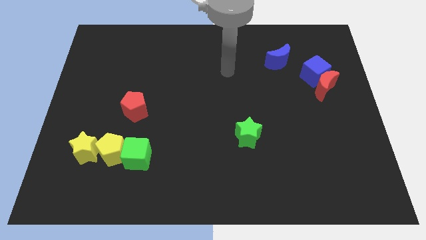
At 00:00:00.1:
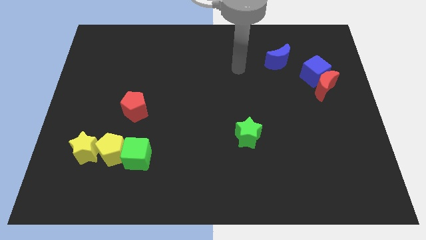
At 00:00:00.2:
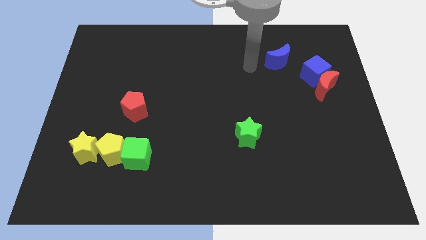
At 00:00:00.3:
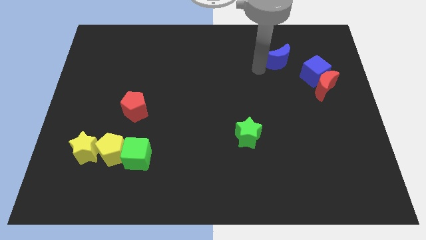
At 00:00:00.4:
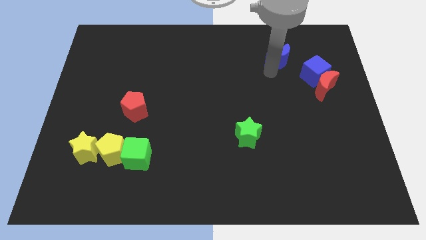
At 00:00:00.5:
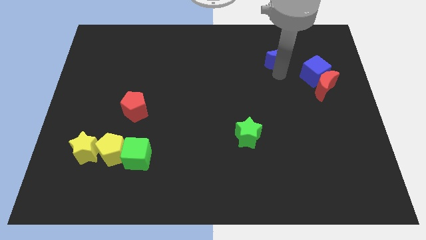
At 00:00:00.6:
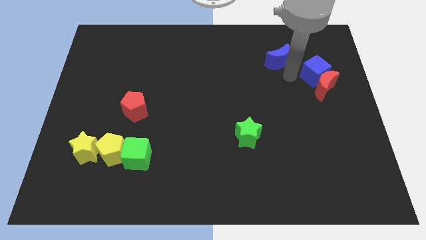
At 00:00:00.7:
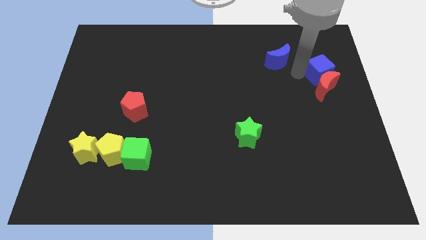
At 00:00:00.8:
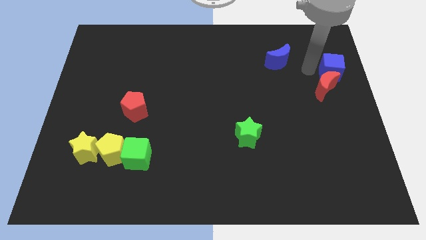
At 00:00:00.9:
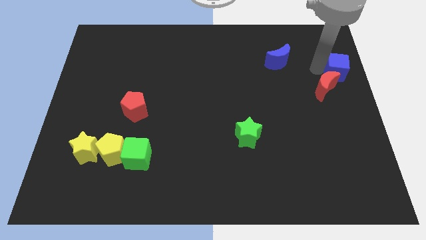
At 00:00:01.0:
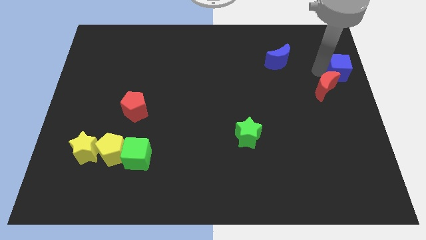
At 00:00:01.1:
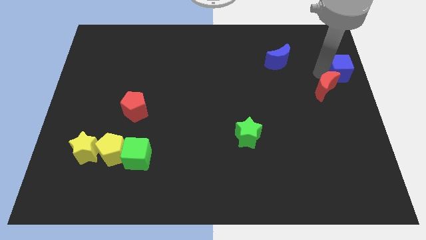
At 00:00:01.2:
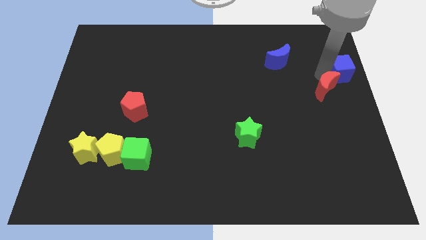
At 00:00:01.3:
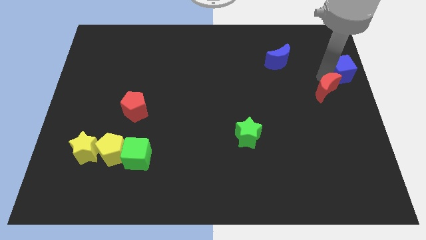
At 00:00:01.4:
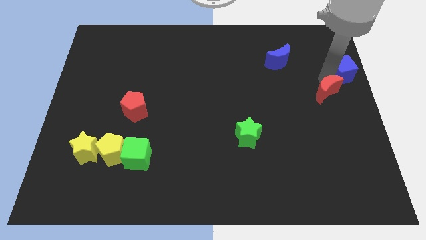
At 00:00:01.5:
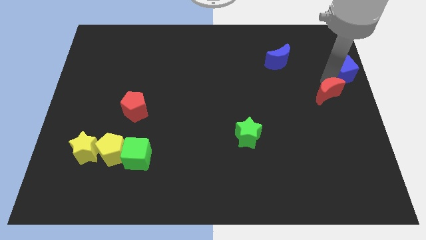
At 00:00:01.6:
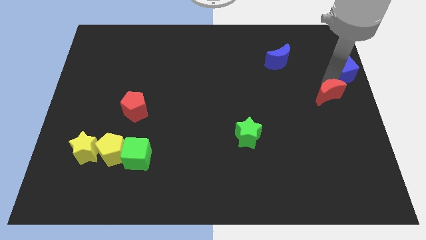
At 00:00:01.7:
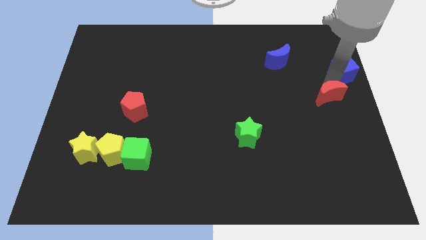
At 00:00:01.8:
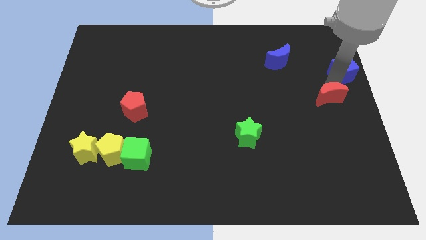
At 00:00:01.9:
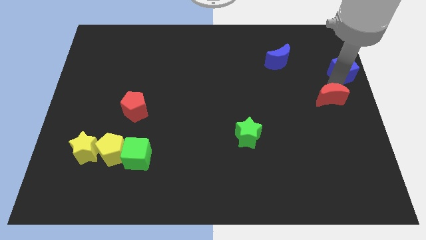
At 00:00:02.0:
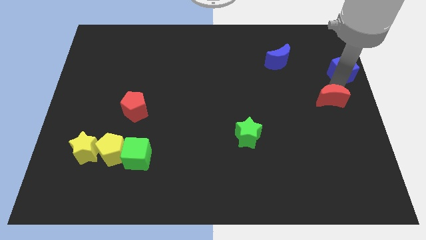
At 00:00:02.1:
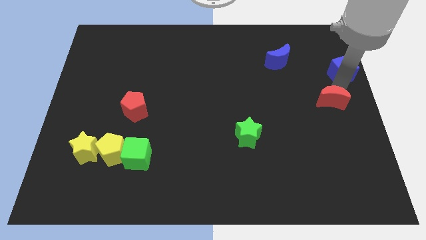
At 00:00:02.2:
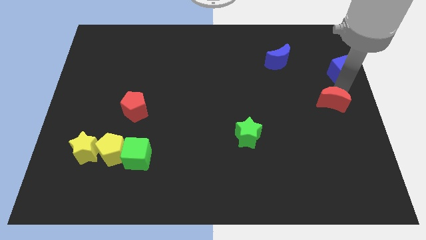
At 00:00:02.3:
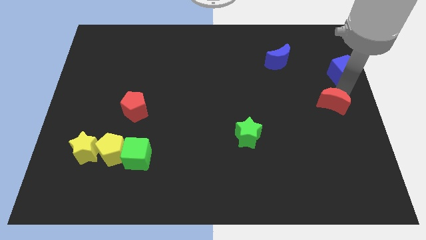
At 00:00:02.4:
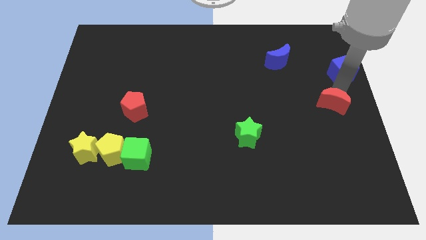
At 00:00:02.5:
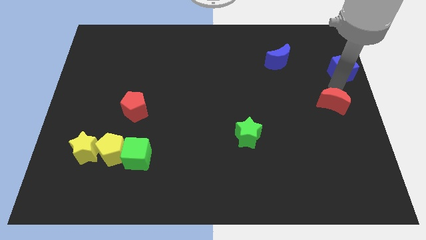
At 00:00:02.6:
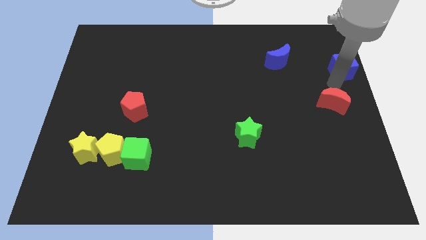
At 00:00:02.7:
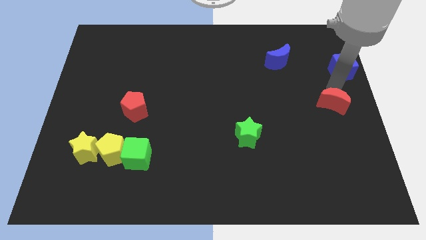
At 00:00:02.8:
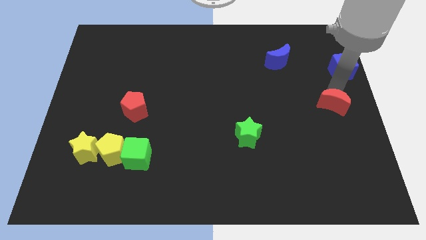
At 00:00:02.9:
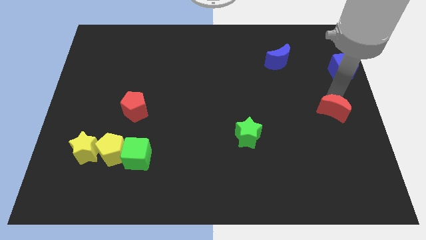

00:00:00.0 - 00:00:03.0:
slightly move the red moon downwards

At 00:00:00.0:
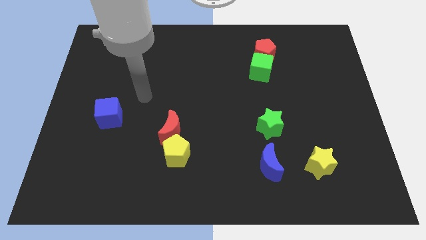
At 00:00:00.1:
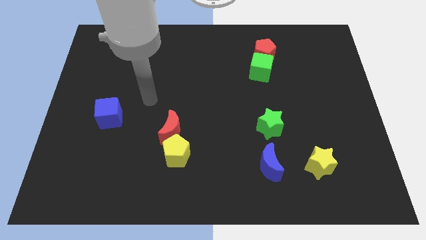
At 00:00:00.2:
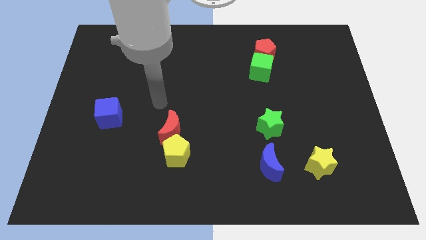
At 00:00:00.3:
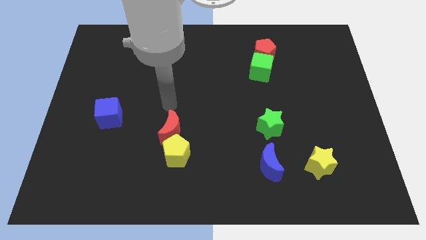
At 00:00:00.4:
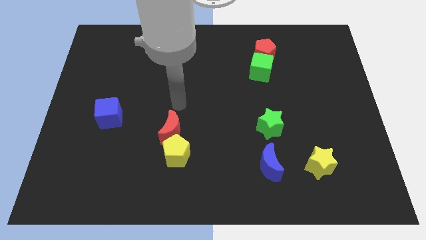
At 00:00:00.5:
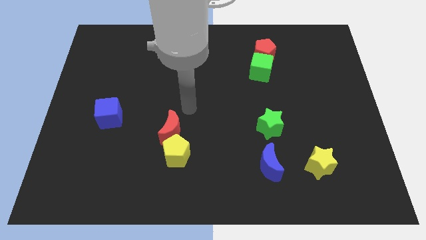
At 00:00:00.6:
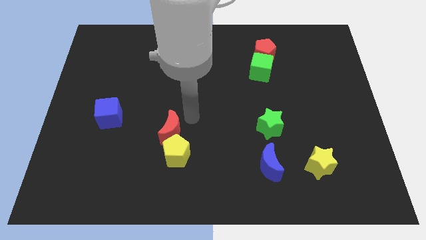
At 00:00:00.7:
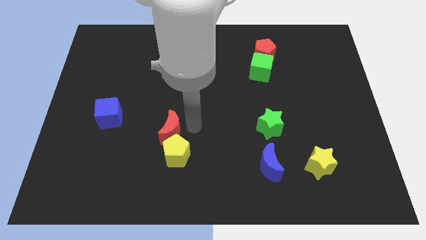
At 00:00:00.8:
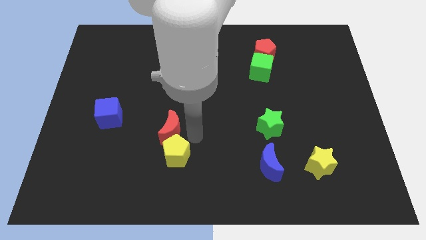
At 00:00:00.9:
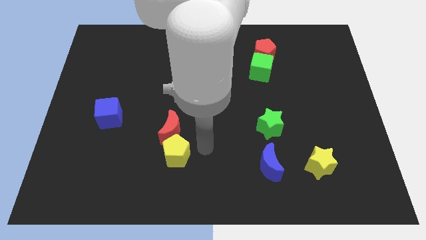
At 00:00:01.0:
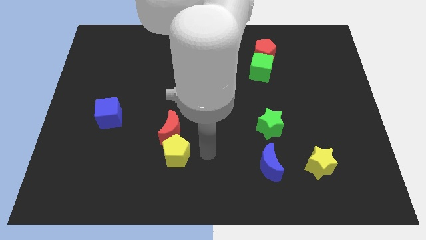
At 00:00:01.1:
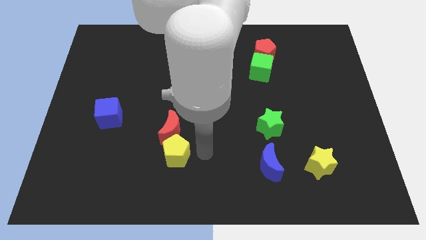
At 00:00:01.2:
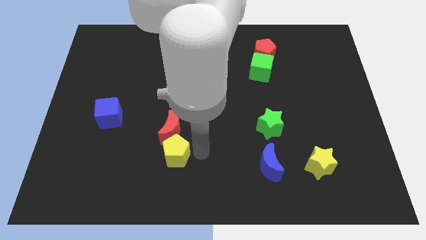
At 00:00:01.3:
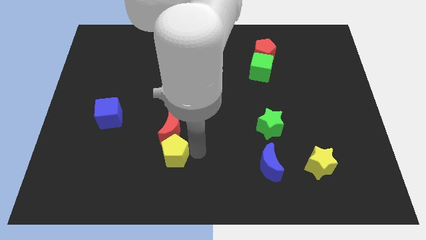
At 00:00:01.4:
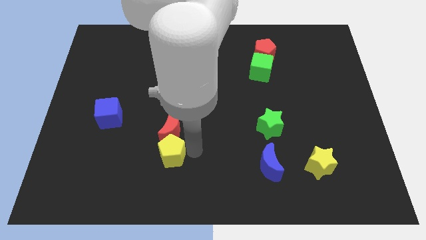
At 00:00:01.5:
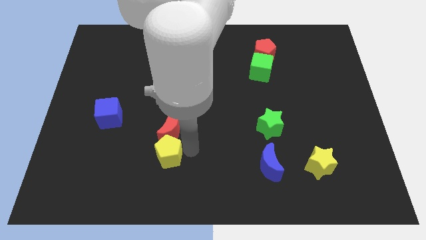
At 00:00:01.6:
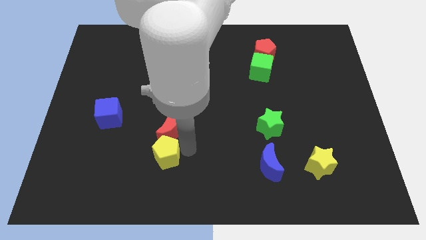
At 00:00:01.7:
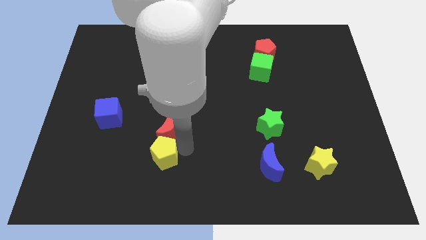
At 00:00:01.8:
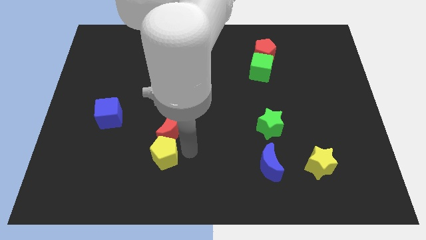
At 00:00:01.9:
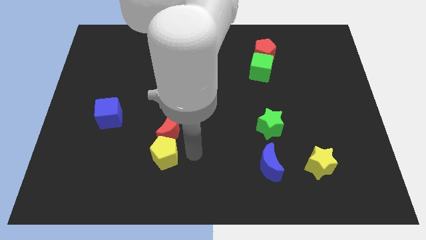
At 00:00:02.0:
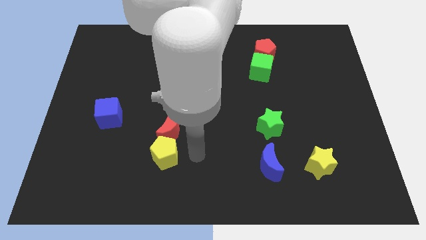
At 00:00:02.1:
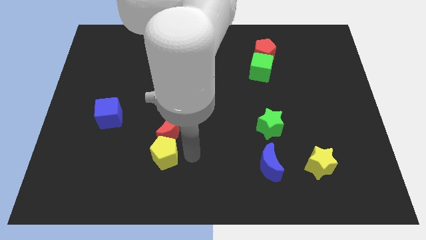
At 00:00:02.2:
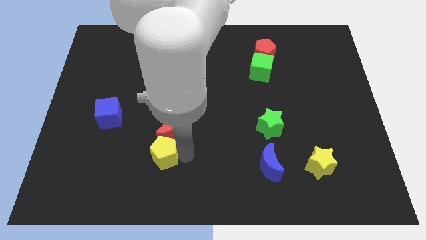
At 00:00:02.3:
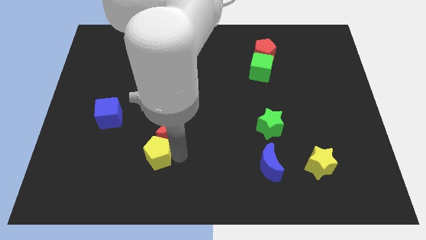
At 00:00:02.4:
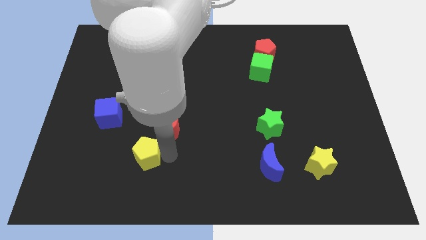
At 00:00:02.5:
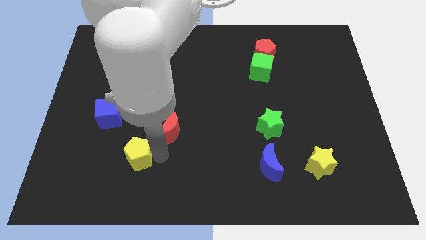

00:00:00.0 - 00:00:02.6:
slide the yellow pentagon slightly left

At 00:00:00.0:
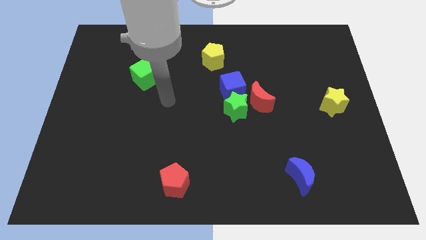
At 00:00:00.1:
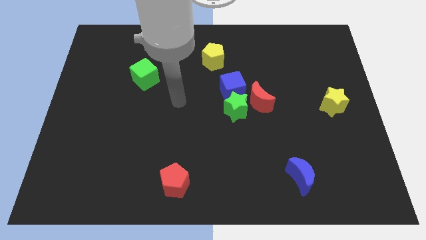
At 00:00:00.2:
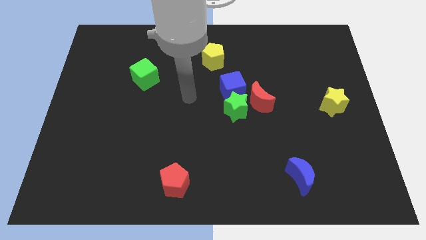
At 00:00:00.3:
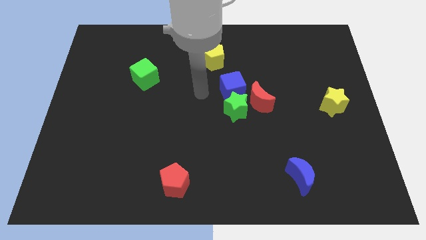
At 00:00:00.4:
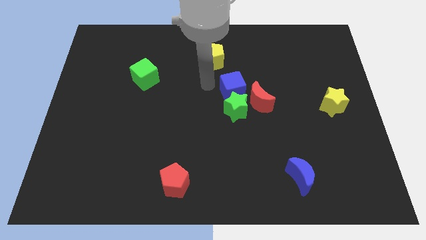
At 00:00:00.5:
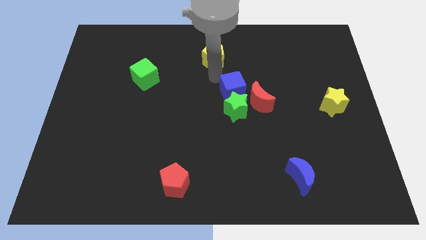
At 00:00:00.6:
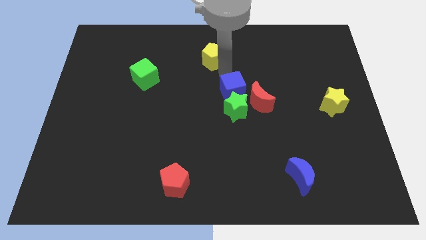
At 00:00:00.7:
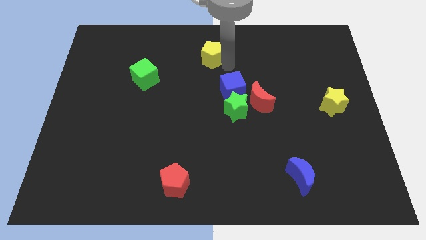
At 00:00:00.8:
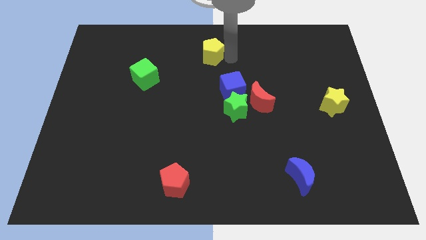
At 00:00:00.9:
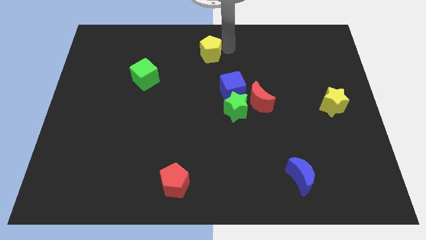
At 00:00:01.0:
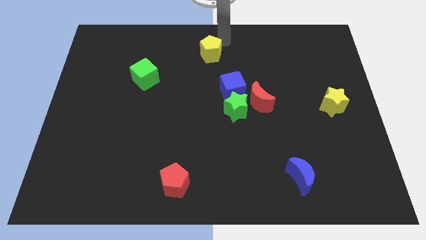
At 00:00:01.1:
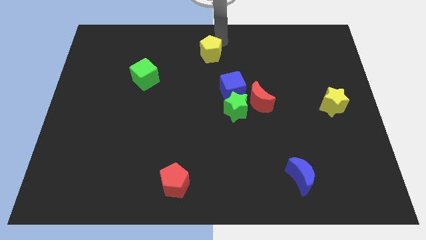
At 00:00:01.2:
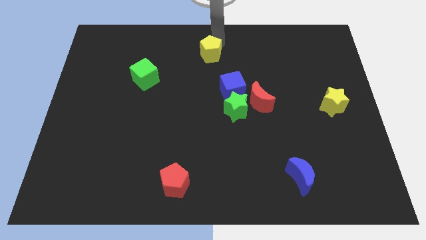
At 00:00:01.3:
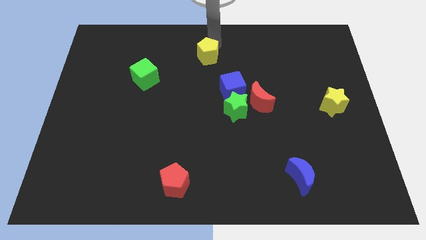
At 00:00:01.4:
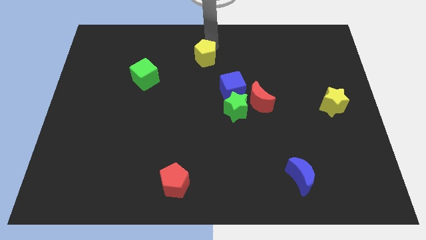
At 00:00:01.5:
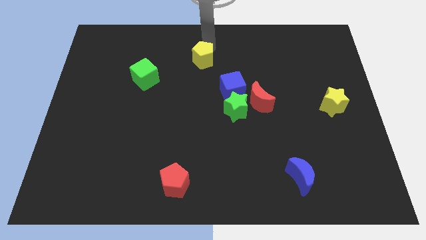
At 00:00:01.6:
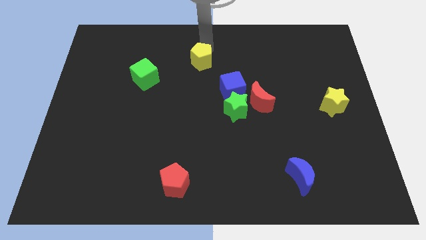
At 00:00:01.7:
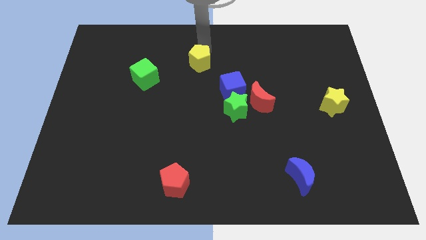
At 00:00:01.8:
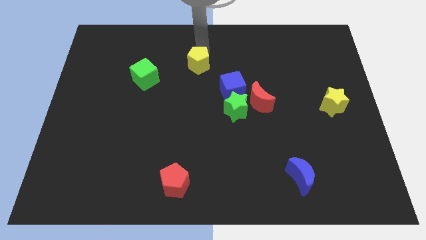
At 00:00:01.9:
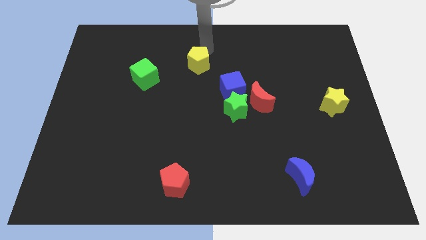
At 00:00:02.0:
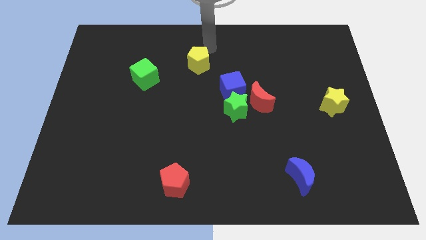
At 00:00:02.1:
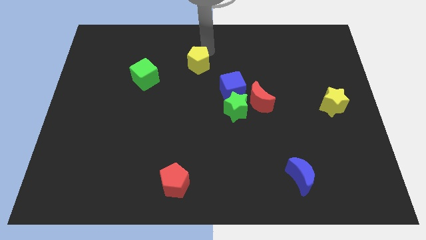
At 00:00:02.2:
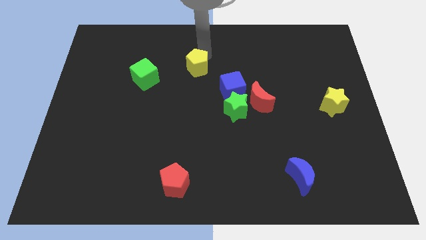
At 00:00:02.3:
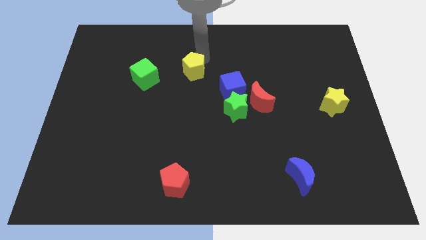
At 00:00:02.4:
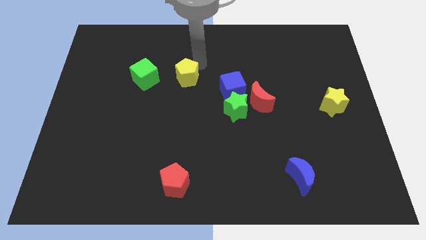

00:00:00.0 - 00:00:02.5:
push the yellow pentagon a bit down and then to the left
